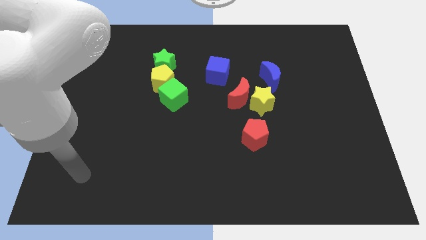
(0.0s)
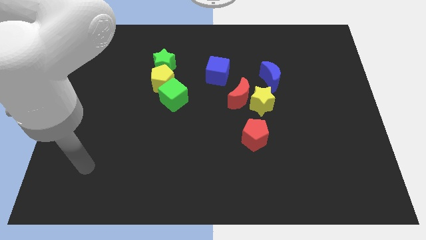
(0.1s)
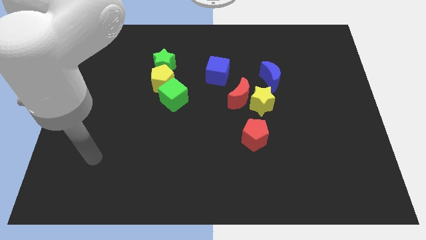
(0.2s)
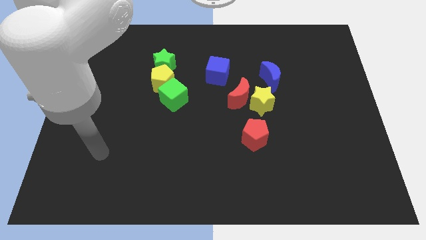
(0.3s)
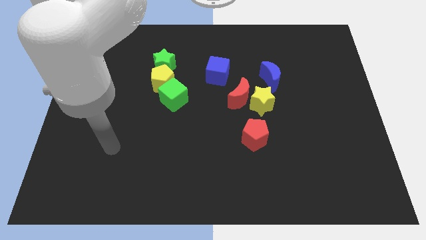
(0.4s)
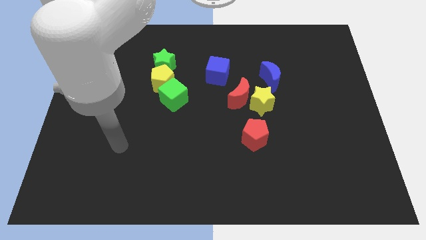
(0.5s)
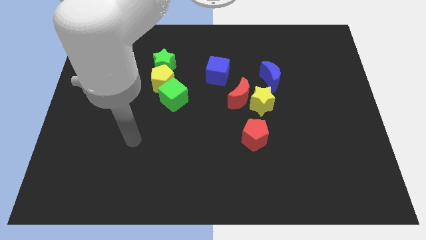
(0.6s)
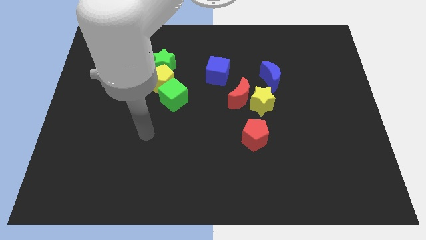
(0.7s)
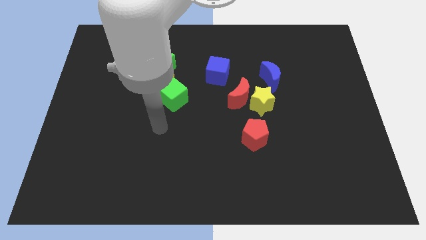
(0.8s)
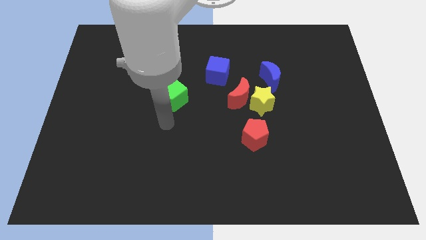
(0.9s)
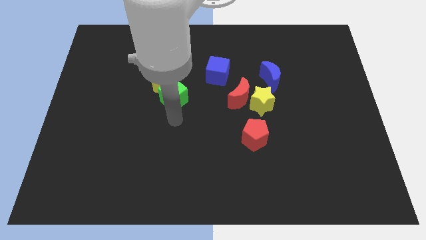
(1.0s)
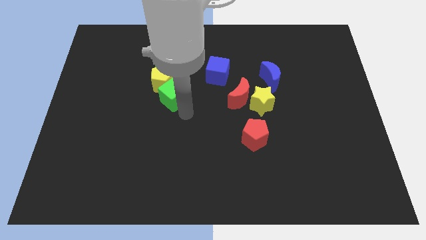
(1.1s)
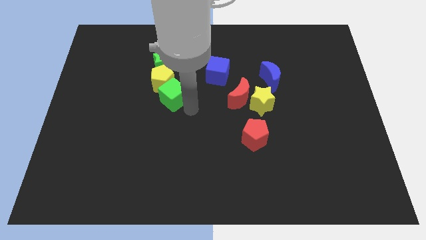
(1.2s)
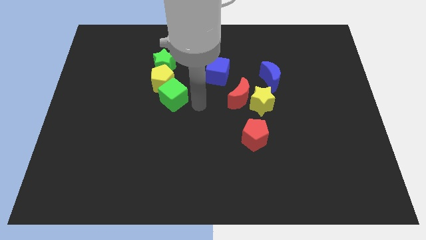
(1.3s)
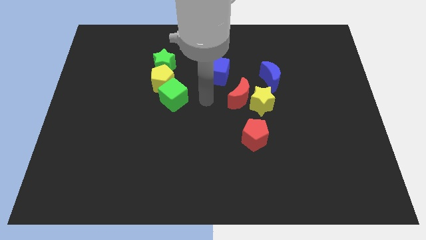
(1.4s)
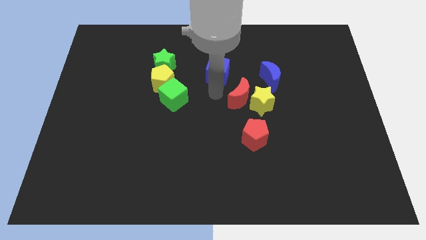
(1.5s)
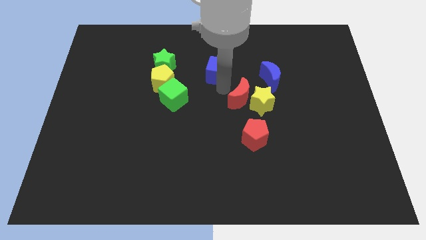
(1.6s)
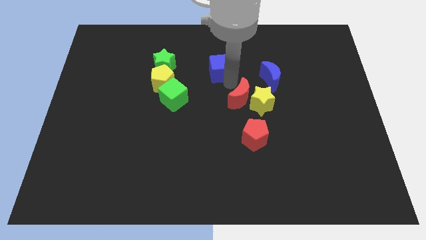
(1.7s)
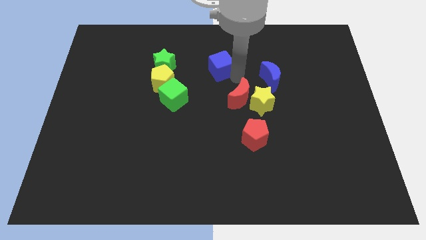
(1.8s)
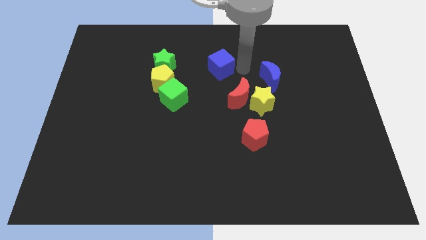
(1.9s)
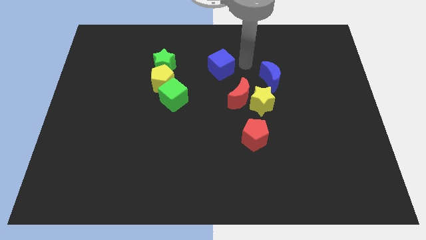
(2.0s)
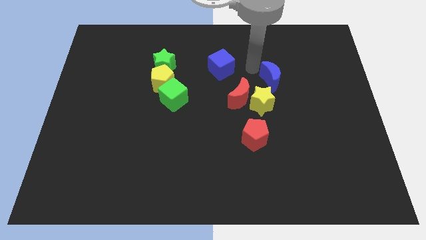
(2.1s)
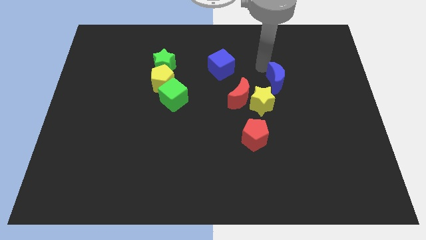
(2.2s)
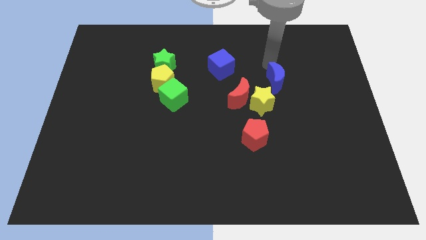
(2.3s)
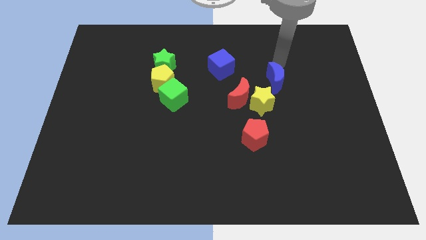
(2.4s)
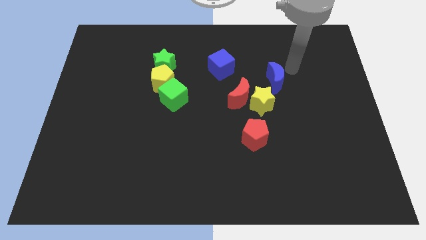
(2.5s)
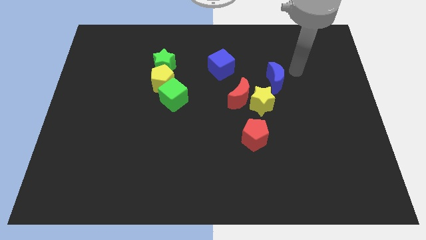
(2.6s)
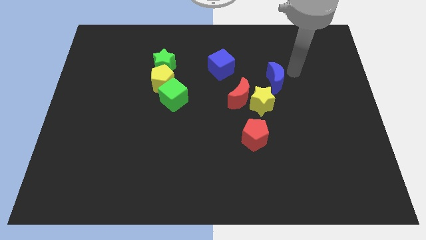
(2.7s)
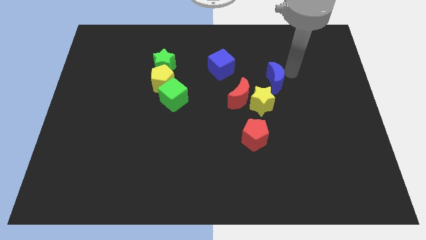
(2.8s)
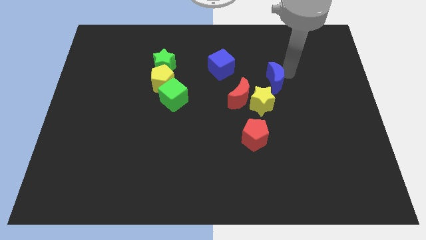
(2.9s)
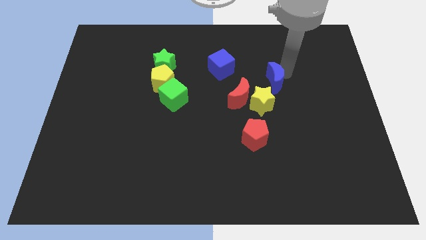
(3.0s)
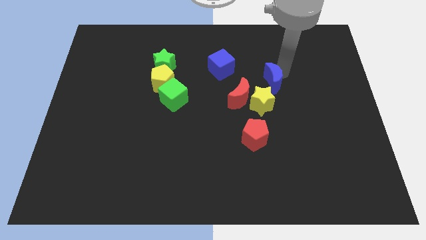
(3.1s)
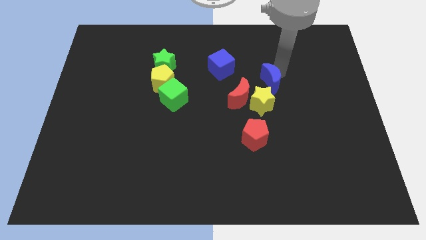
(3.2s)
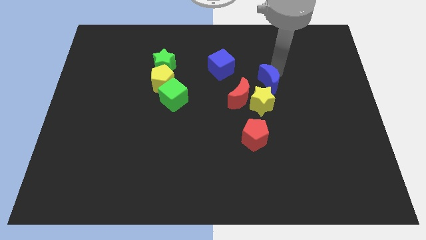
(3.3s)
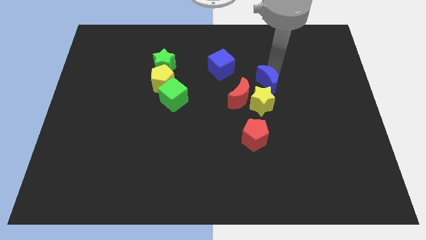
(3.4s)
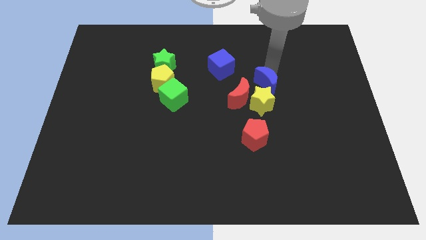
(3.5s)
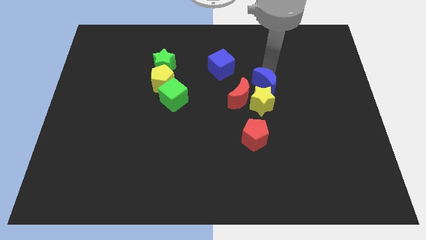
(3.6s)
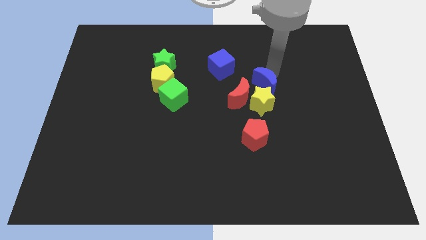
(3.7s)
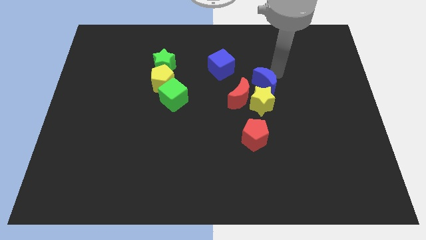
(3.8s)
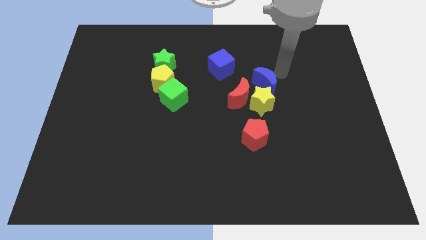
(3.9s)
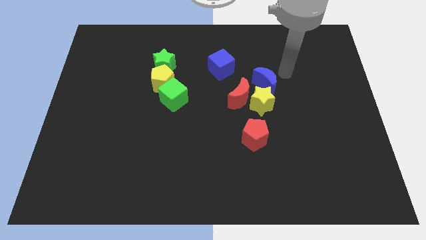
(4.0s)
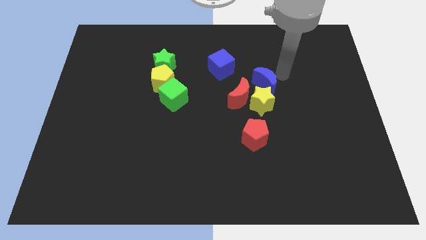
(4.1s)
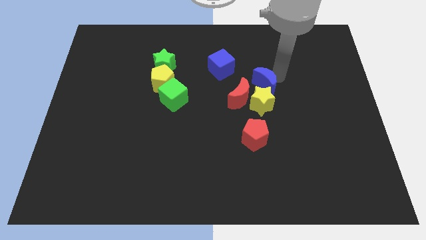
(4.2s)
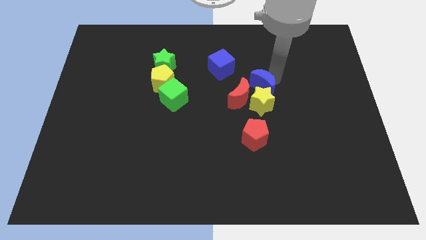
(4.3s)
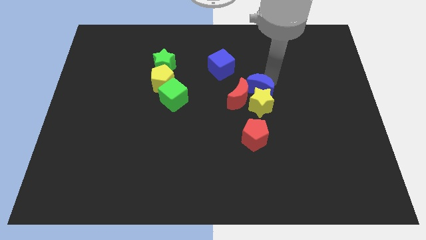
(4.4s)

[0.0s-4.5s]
push the blue moon close to the red moon

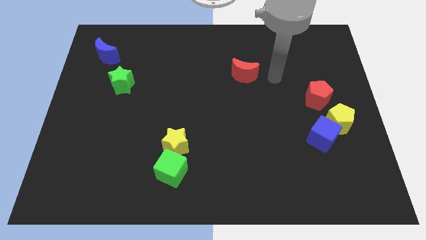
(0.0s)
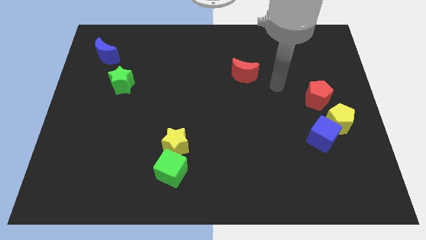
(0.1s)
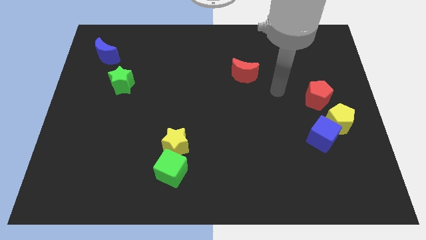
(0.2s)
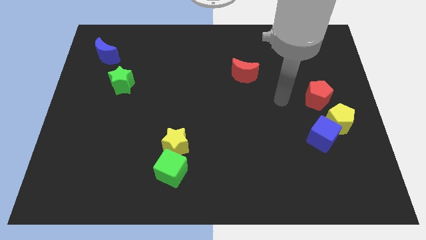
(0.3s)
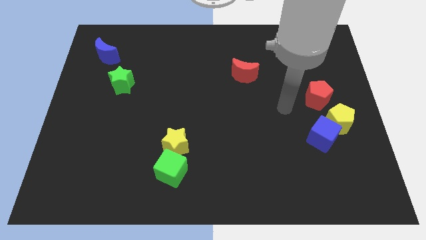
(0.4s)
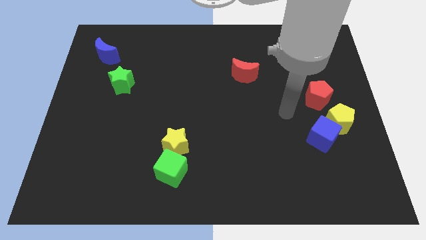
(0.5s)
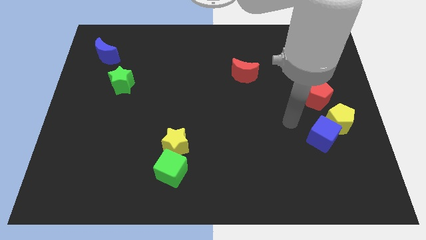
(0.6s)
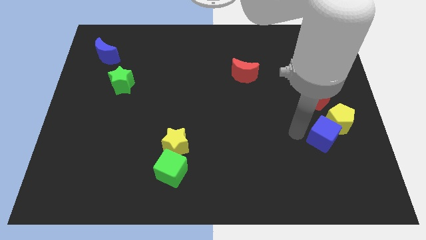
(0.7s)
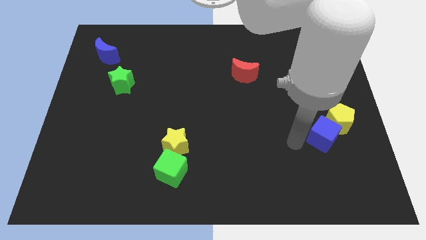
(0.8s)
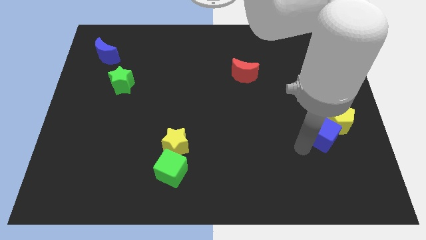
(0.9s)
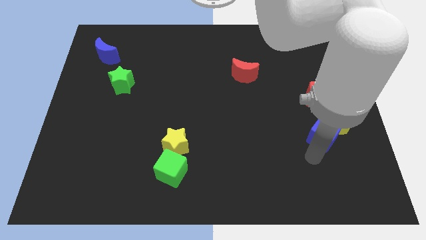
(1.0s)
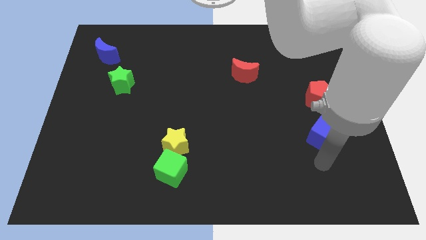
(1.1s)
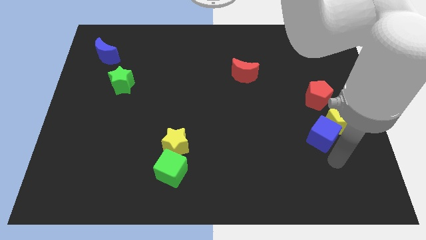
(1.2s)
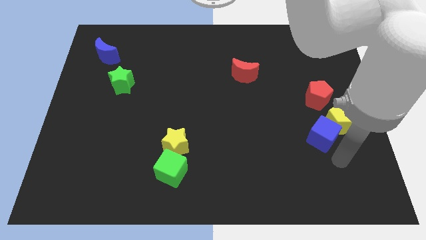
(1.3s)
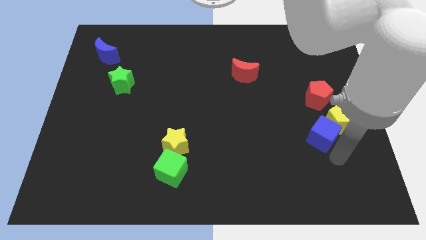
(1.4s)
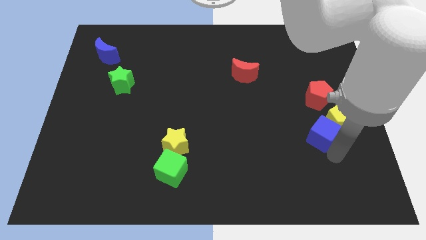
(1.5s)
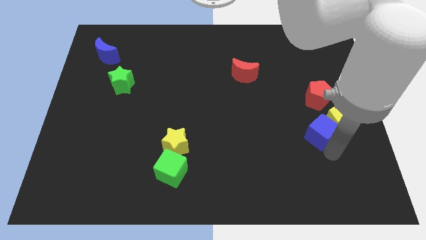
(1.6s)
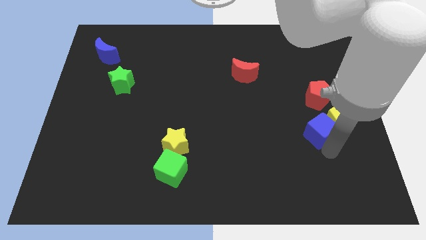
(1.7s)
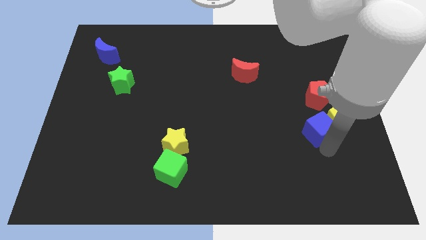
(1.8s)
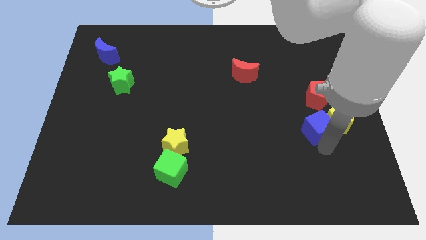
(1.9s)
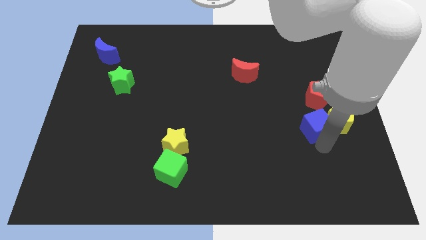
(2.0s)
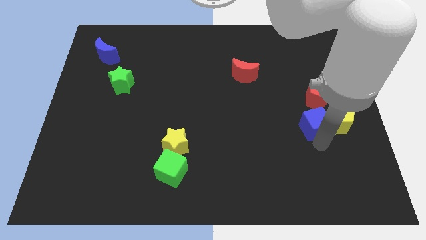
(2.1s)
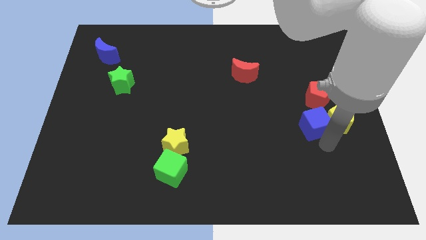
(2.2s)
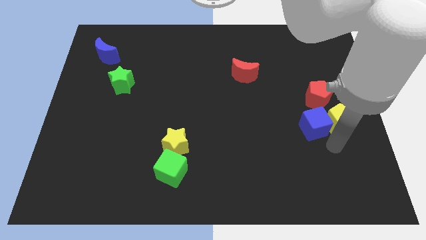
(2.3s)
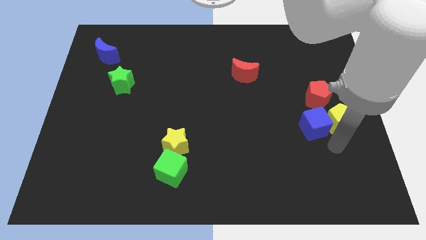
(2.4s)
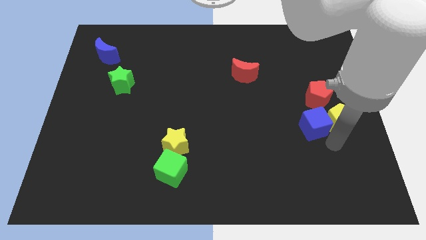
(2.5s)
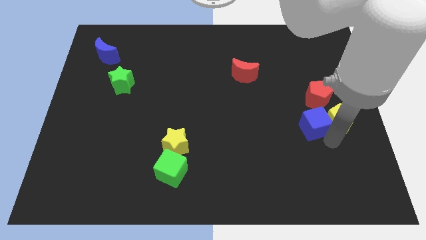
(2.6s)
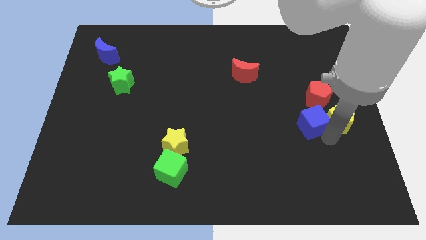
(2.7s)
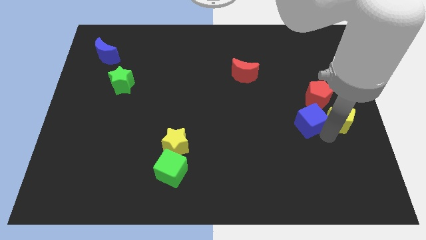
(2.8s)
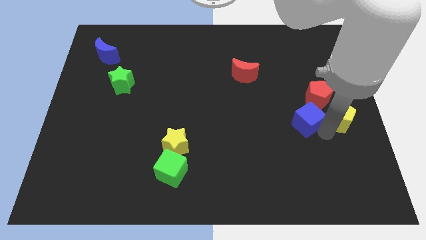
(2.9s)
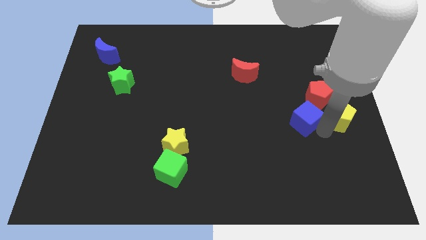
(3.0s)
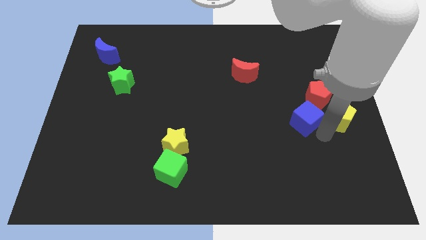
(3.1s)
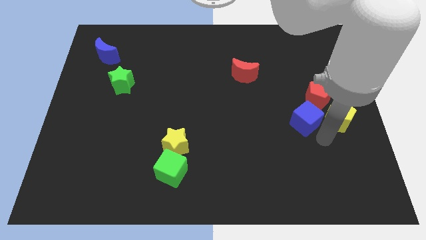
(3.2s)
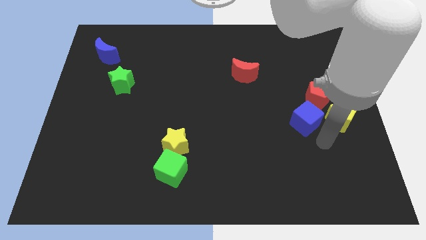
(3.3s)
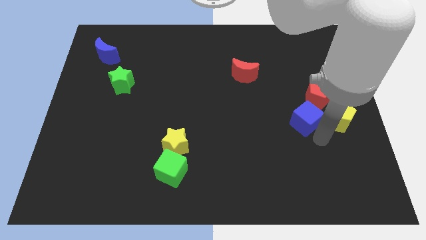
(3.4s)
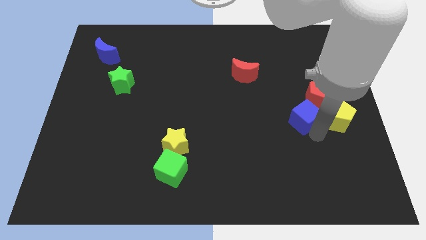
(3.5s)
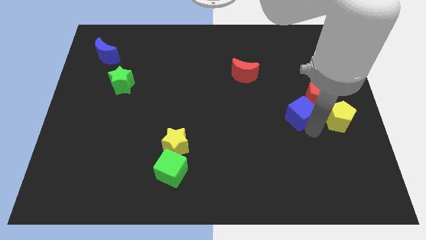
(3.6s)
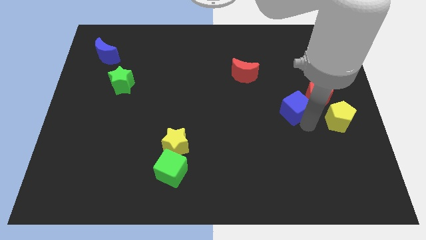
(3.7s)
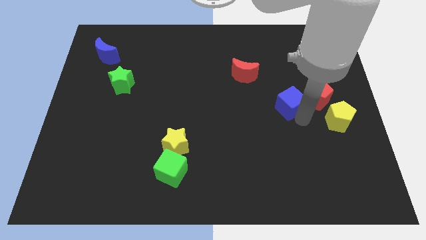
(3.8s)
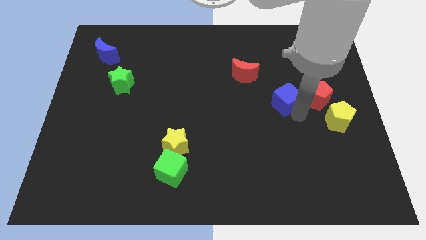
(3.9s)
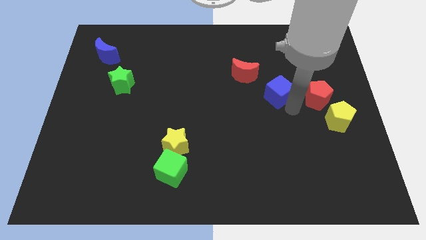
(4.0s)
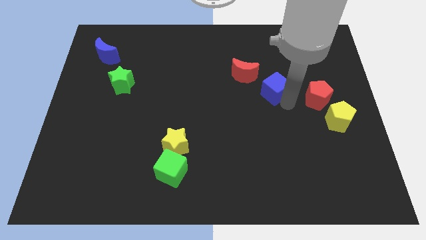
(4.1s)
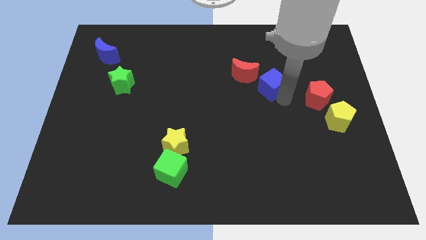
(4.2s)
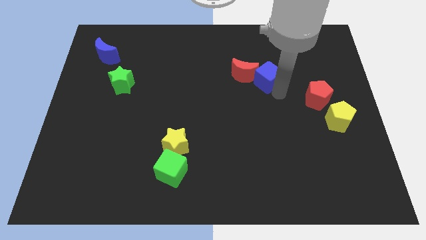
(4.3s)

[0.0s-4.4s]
slide the blue cube to the red moon
